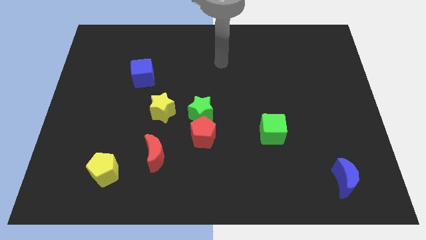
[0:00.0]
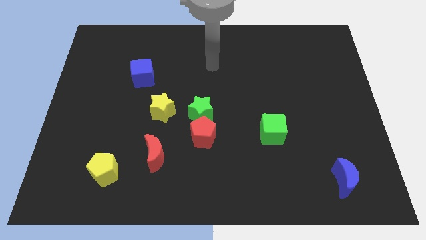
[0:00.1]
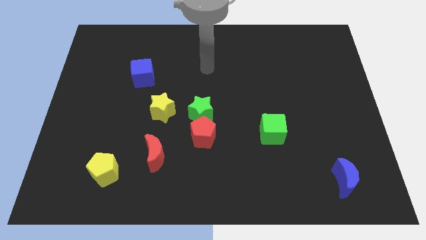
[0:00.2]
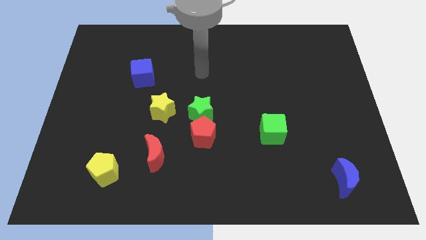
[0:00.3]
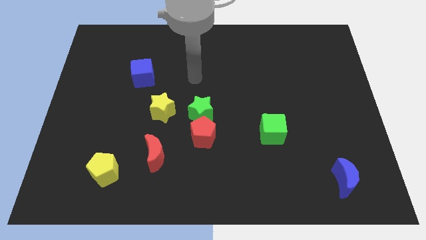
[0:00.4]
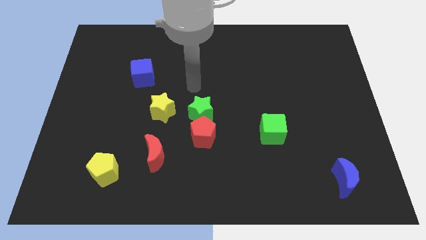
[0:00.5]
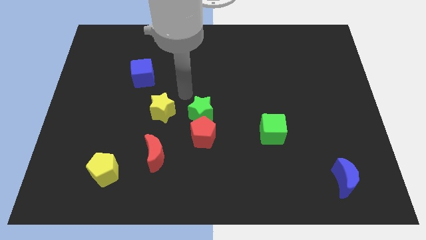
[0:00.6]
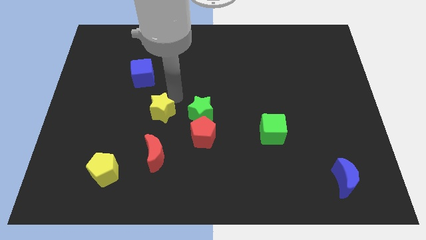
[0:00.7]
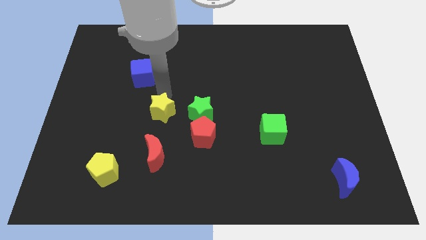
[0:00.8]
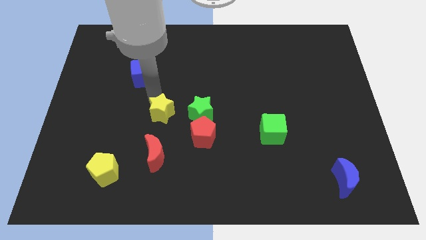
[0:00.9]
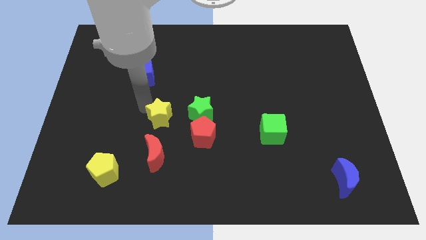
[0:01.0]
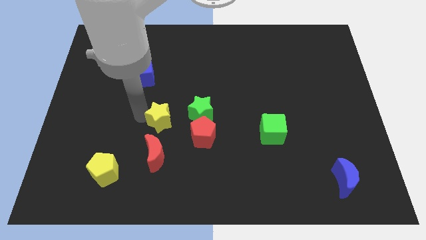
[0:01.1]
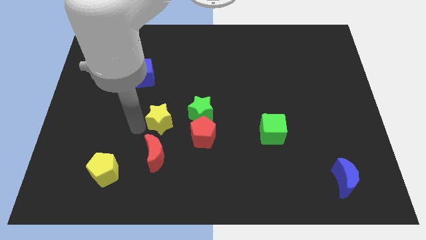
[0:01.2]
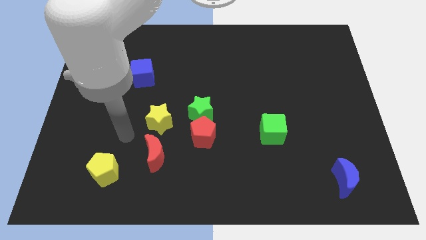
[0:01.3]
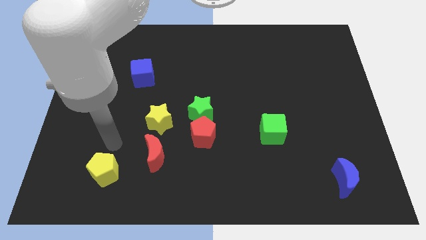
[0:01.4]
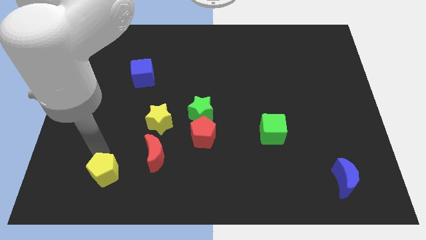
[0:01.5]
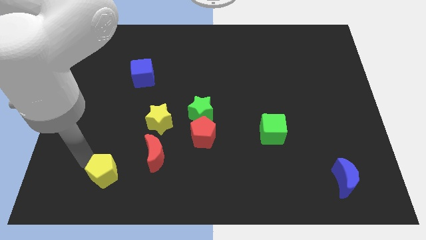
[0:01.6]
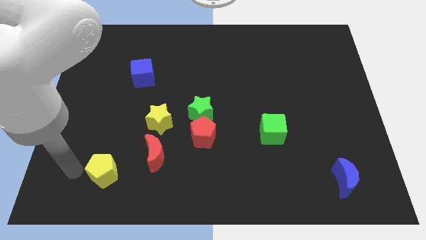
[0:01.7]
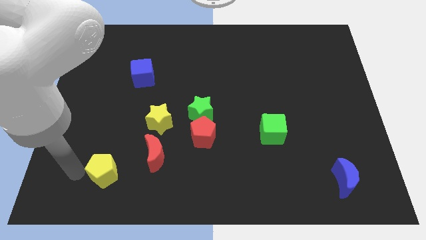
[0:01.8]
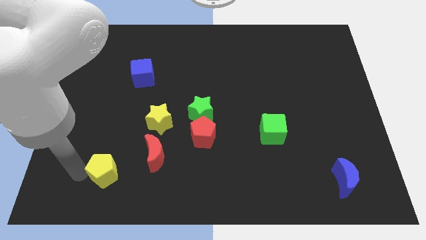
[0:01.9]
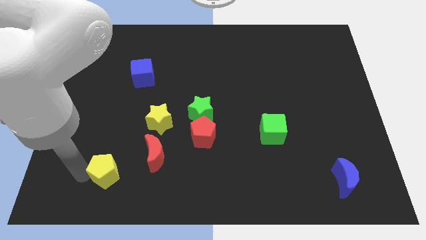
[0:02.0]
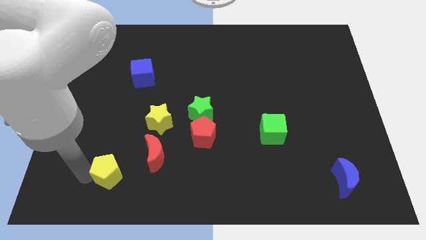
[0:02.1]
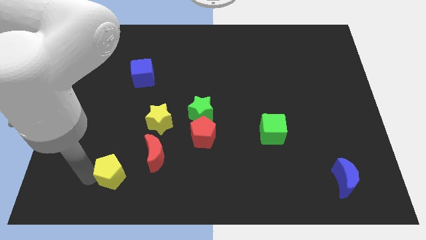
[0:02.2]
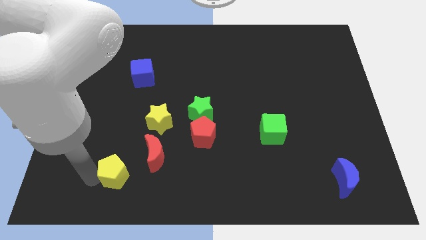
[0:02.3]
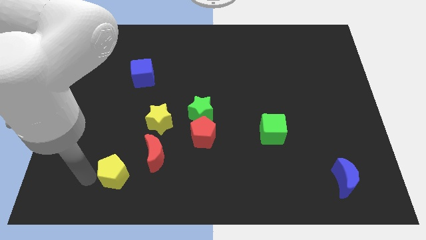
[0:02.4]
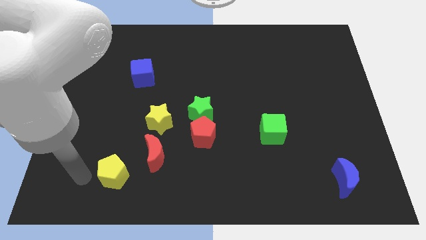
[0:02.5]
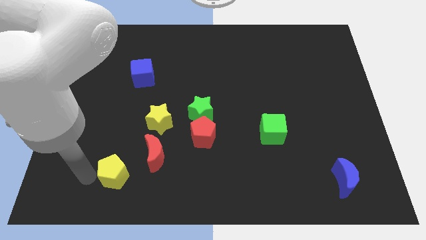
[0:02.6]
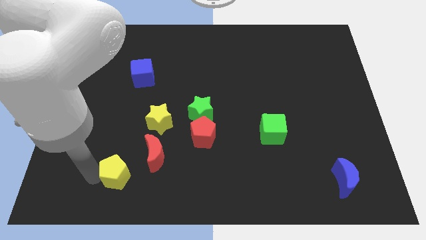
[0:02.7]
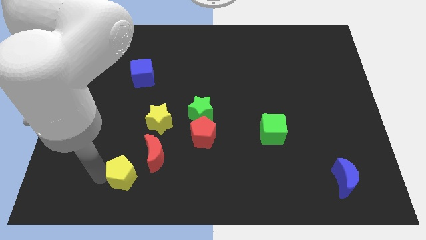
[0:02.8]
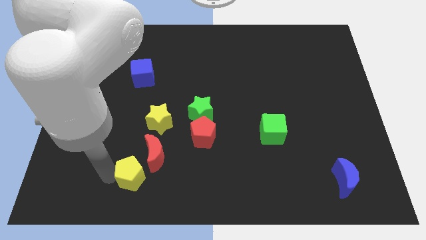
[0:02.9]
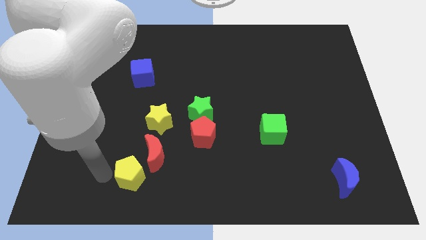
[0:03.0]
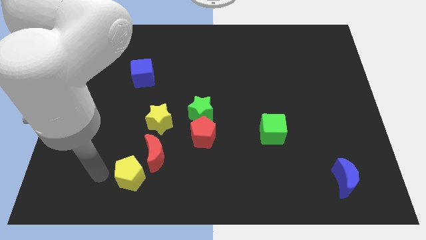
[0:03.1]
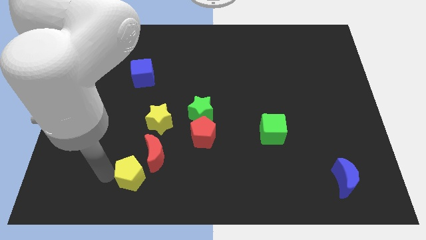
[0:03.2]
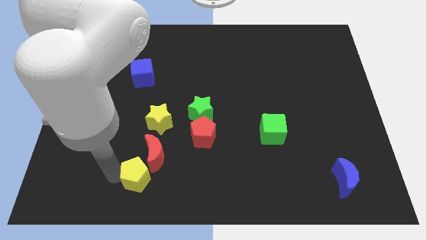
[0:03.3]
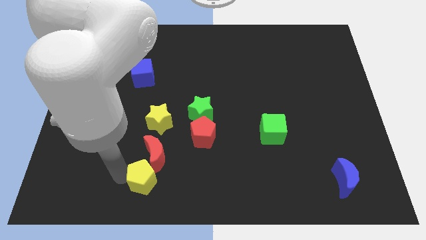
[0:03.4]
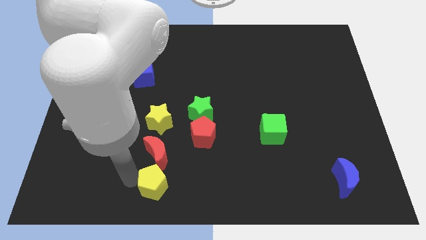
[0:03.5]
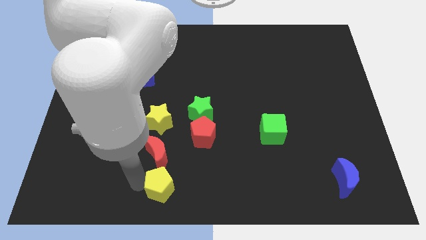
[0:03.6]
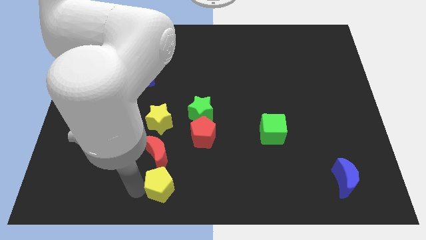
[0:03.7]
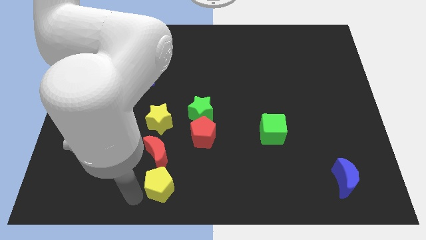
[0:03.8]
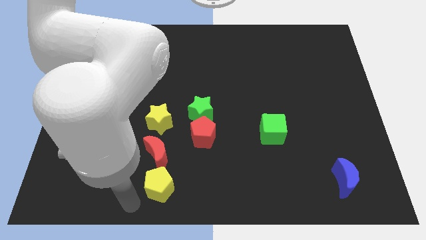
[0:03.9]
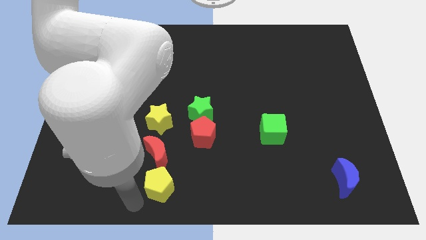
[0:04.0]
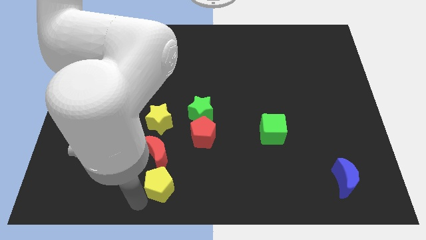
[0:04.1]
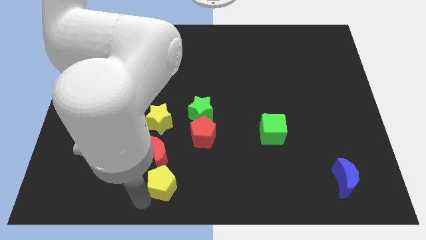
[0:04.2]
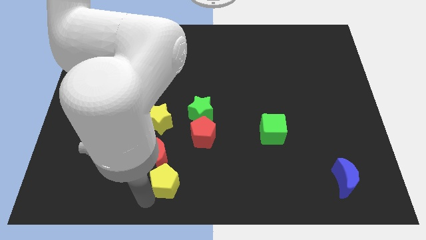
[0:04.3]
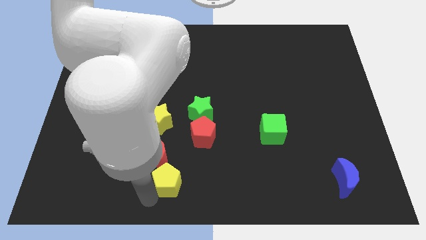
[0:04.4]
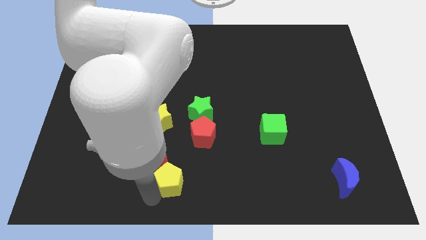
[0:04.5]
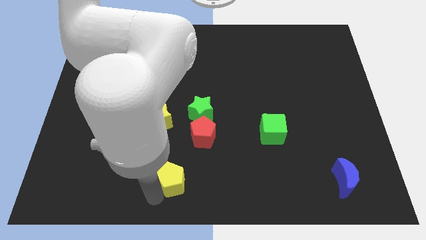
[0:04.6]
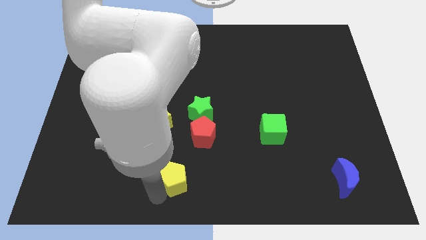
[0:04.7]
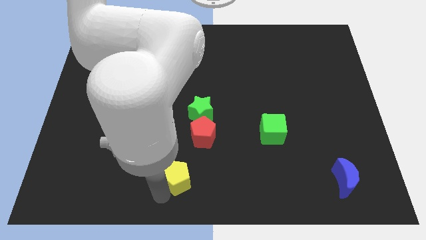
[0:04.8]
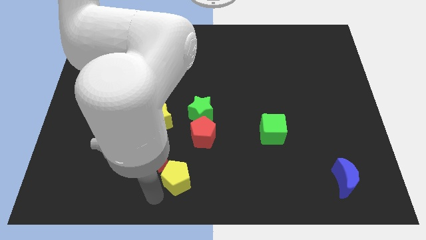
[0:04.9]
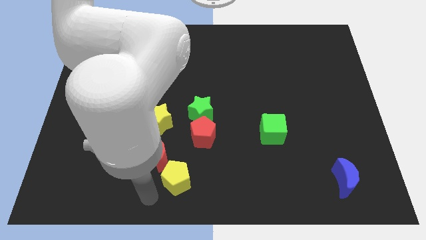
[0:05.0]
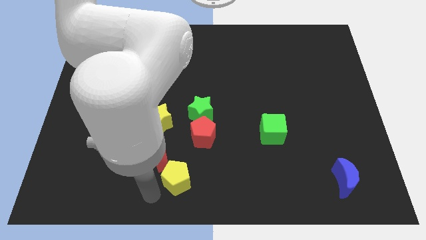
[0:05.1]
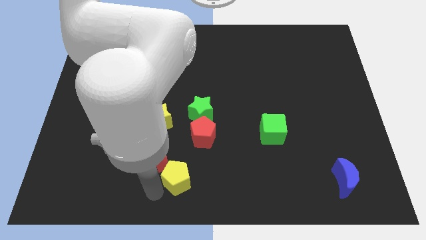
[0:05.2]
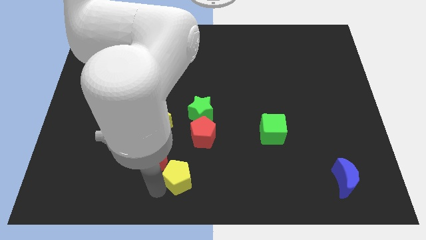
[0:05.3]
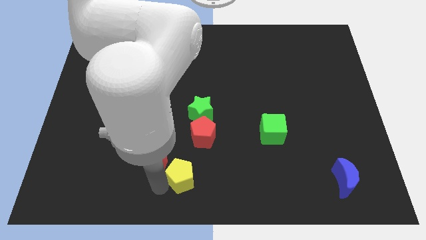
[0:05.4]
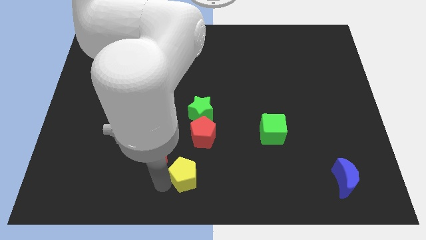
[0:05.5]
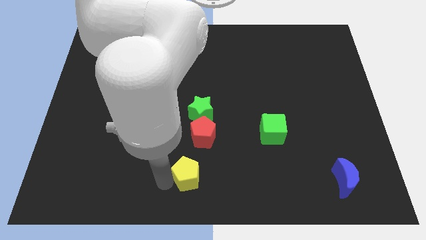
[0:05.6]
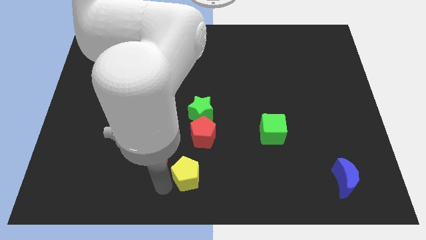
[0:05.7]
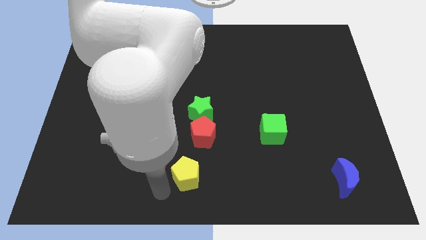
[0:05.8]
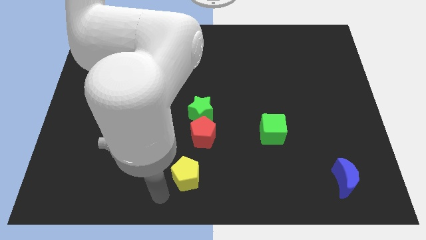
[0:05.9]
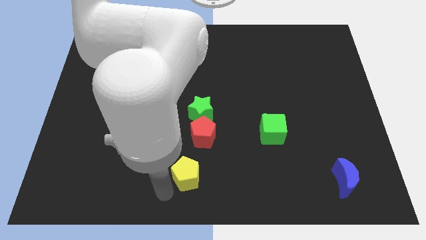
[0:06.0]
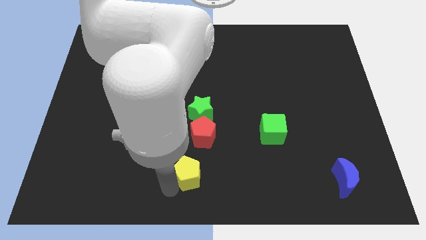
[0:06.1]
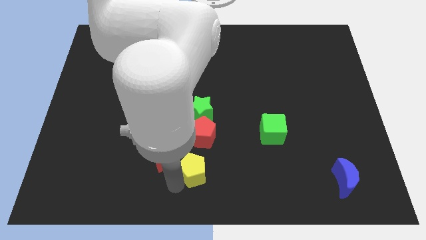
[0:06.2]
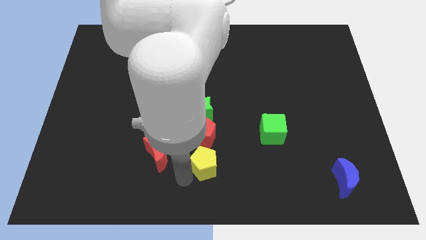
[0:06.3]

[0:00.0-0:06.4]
move the yellow pentagon to the bottom right side of the red pentagon

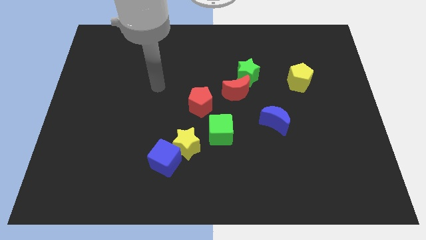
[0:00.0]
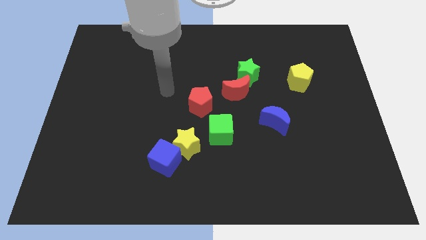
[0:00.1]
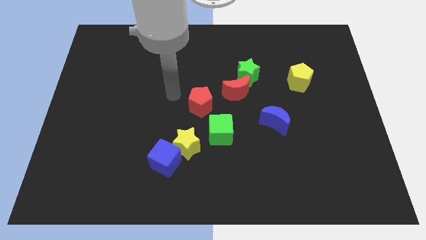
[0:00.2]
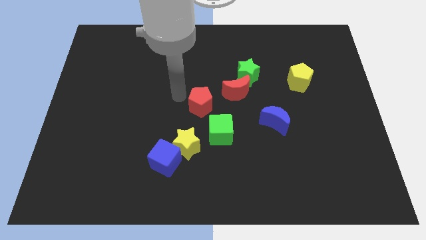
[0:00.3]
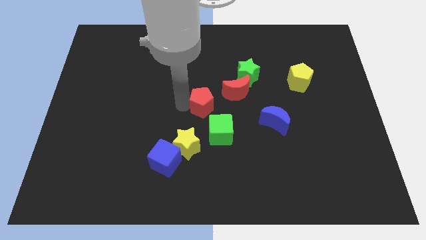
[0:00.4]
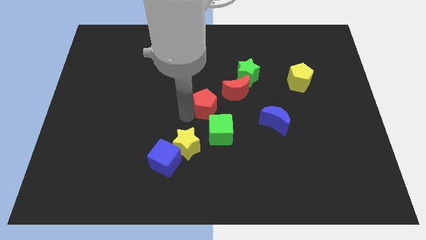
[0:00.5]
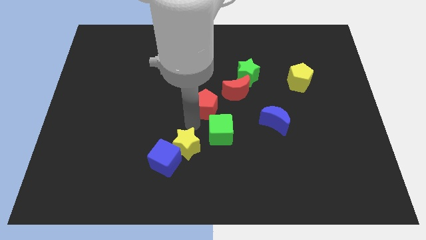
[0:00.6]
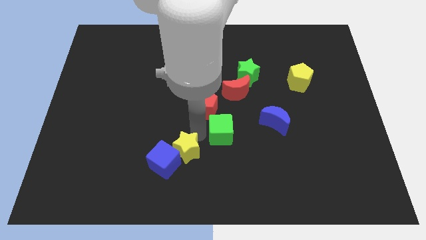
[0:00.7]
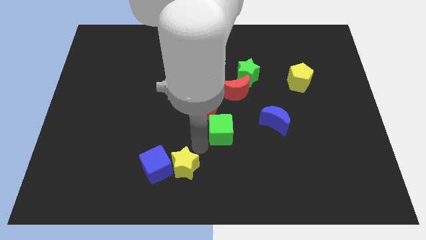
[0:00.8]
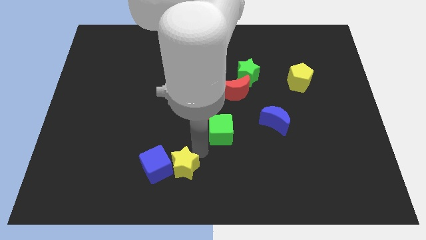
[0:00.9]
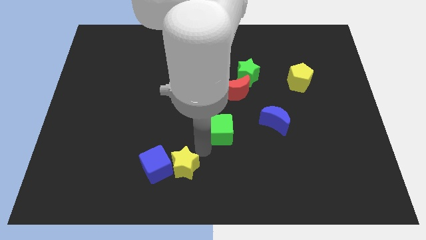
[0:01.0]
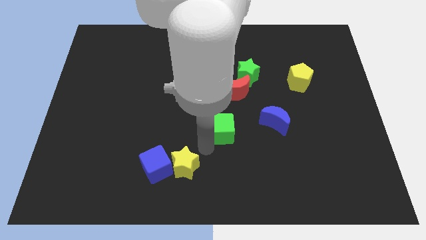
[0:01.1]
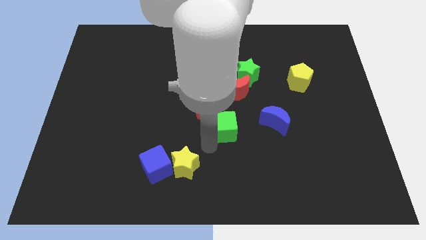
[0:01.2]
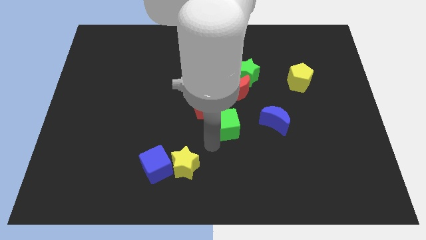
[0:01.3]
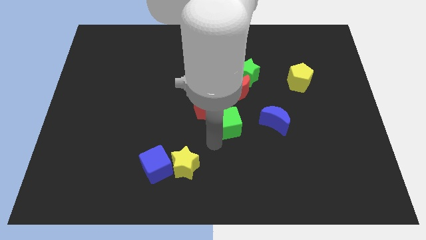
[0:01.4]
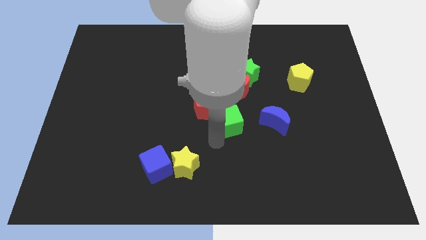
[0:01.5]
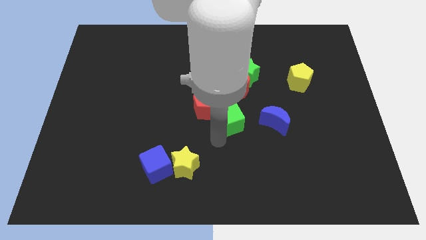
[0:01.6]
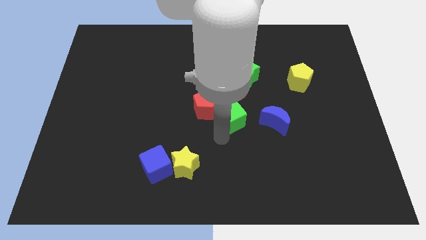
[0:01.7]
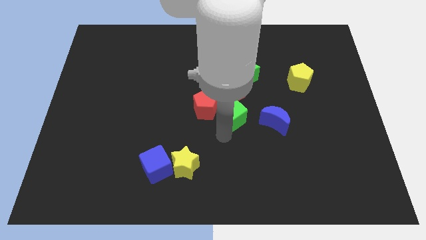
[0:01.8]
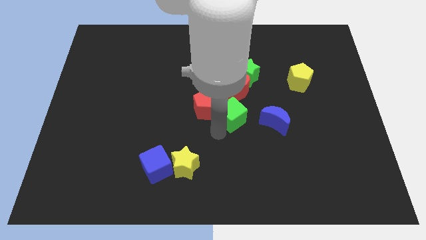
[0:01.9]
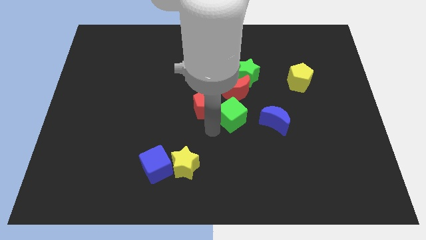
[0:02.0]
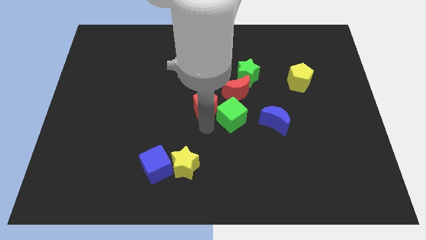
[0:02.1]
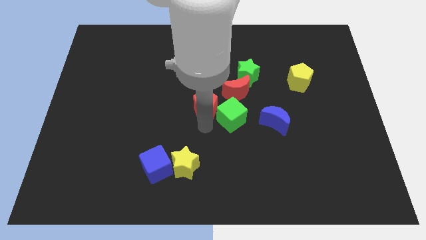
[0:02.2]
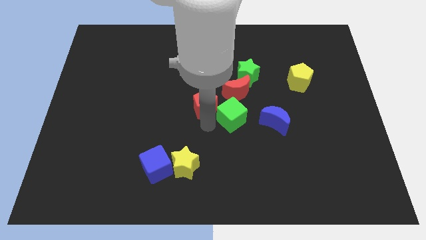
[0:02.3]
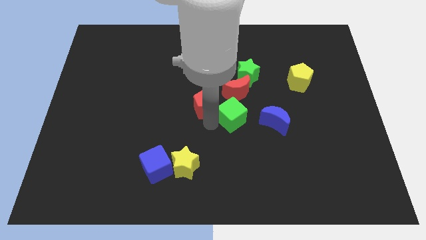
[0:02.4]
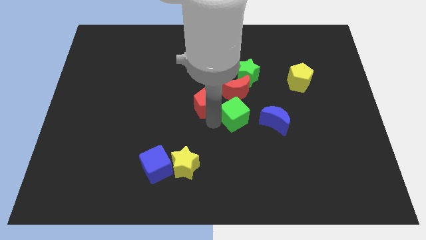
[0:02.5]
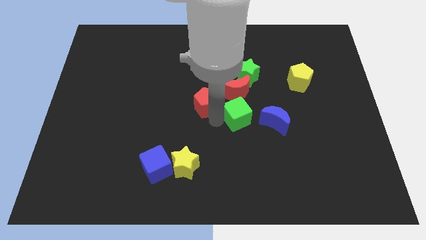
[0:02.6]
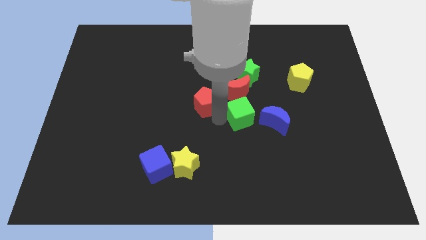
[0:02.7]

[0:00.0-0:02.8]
slide the green cube diagonally down and to the right of the red moon
